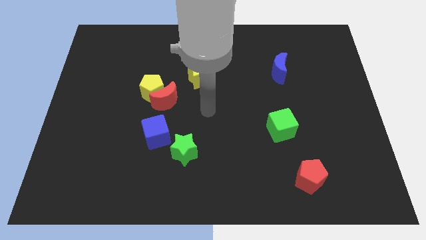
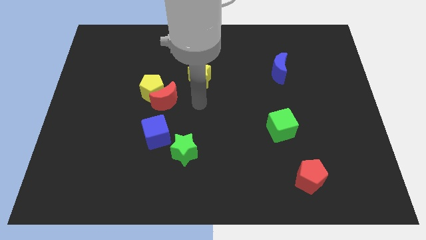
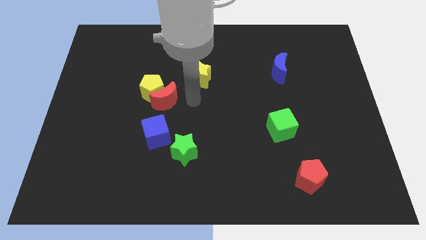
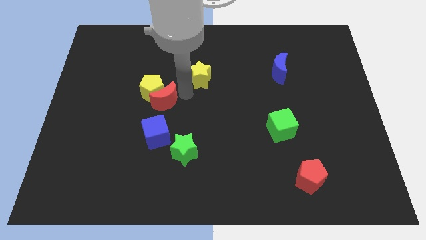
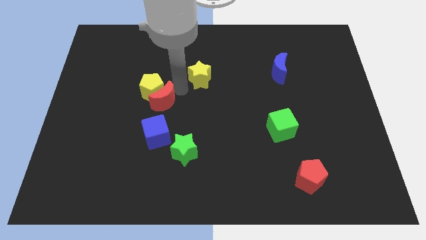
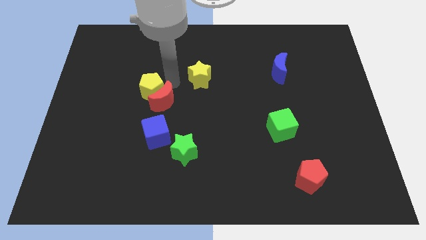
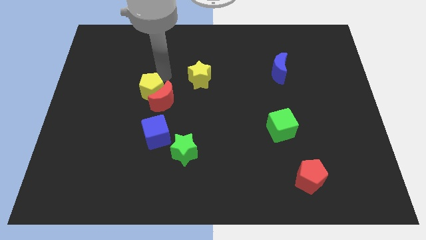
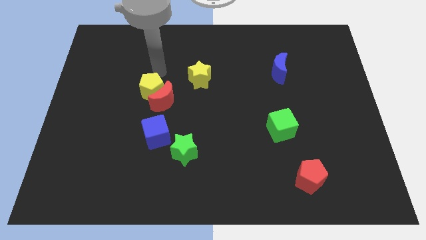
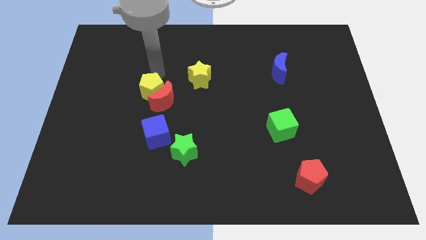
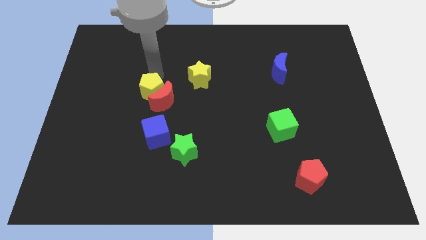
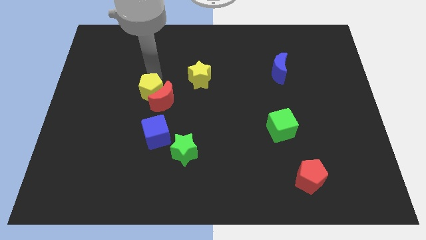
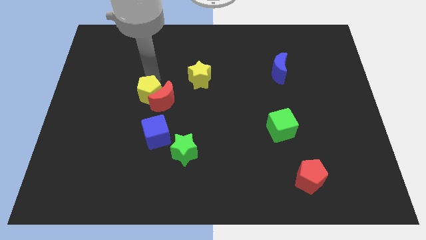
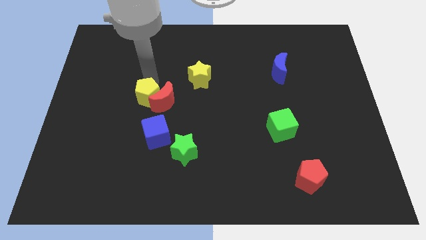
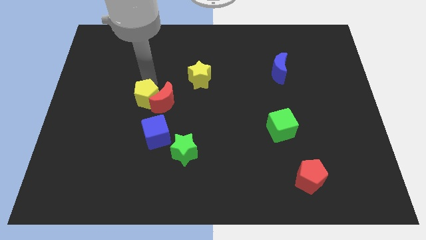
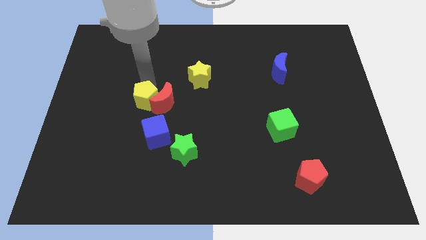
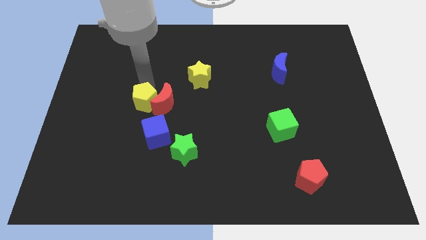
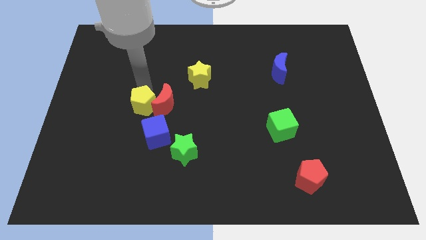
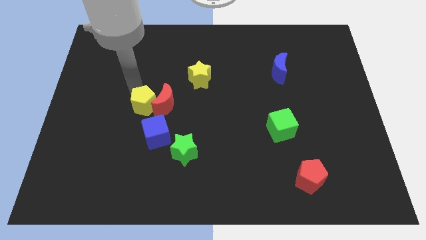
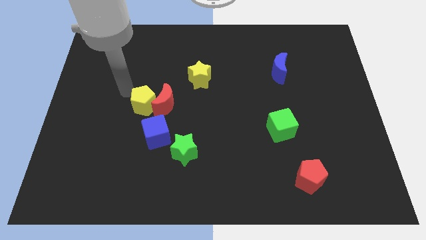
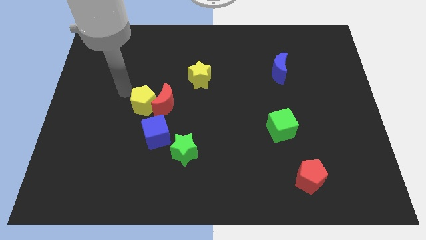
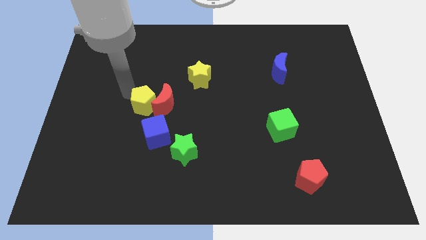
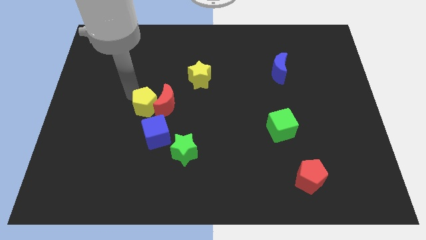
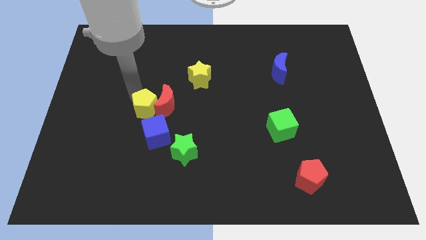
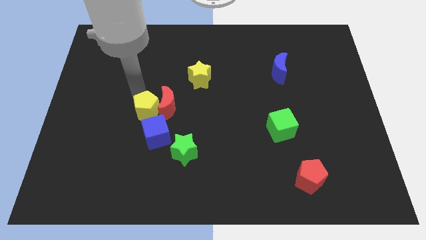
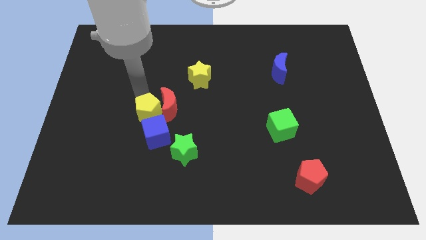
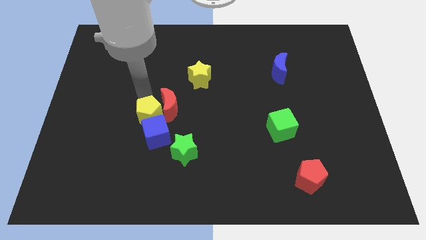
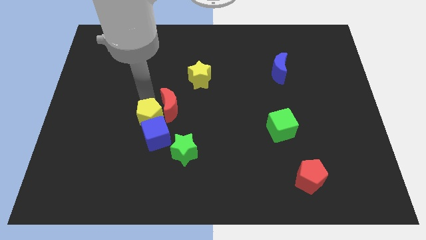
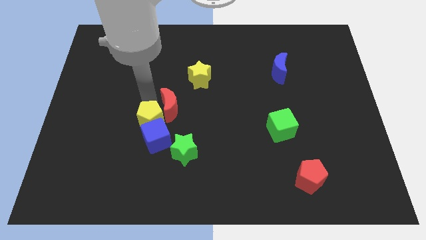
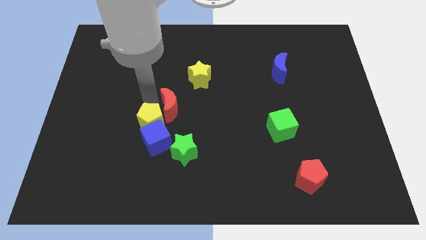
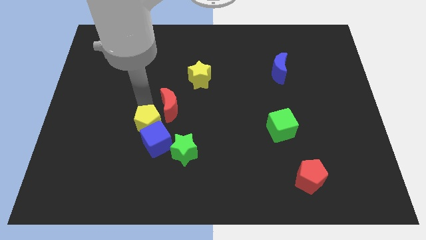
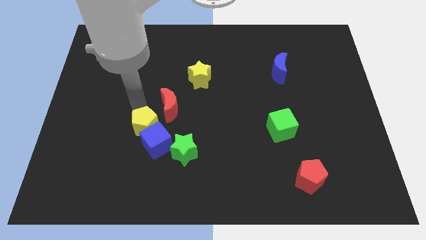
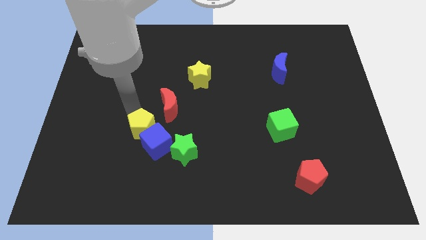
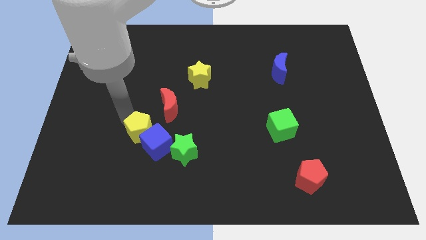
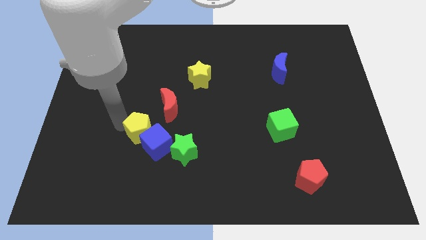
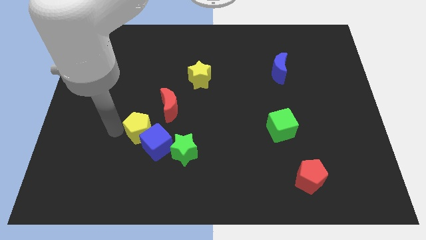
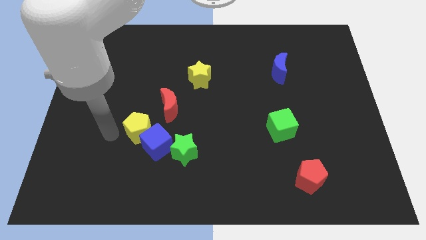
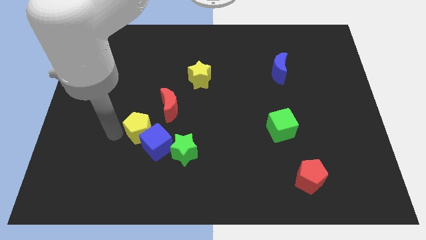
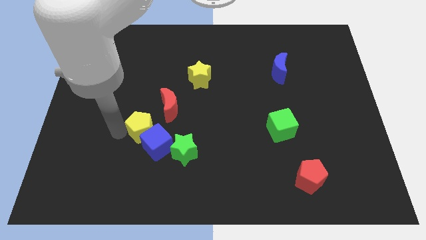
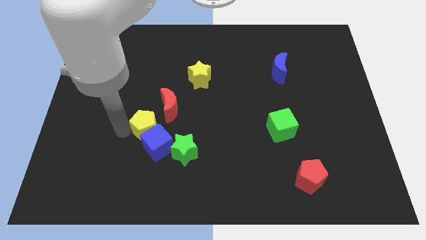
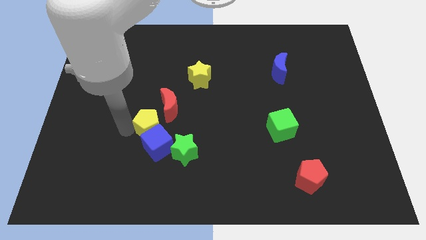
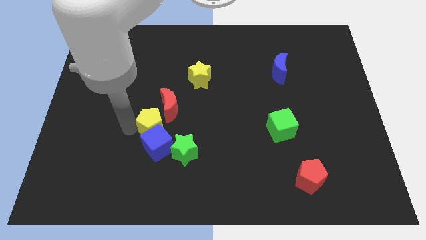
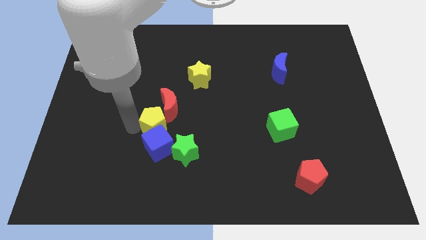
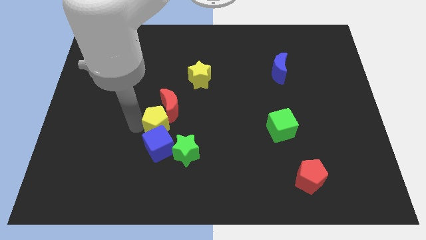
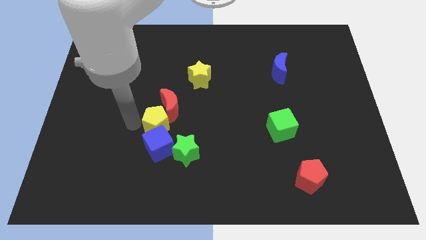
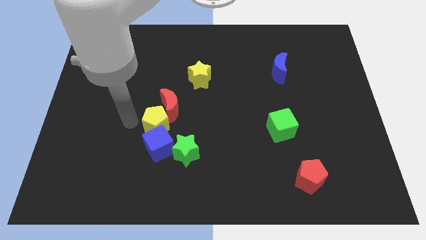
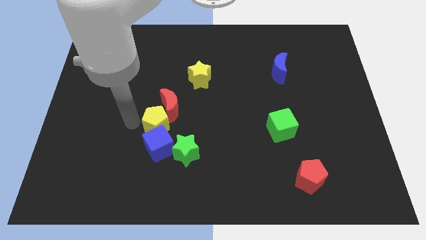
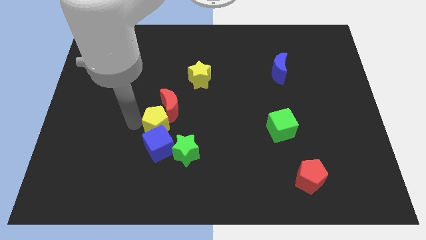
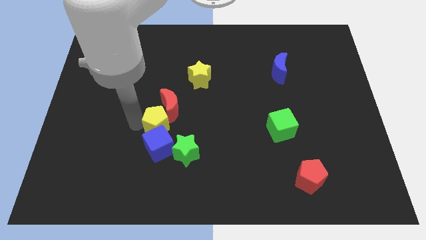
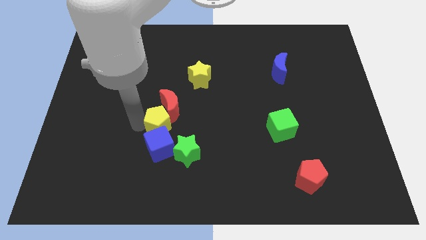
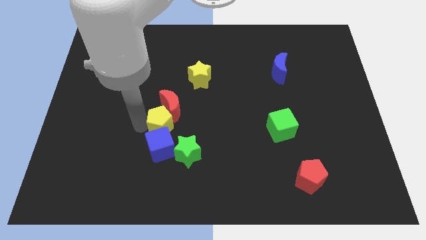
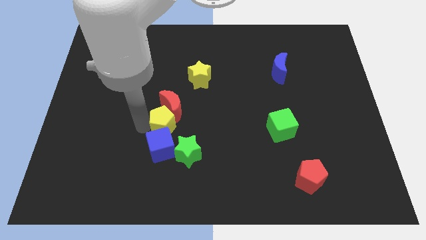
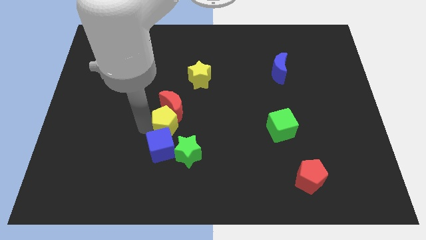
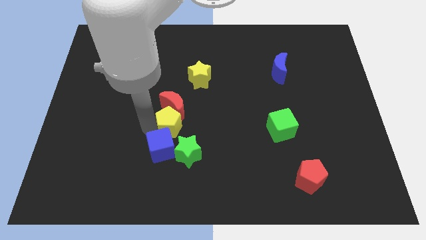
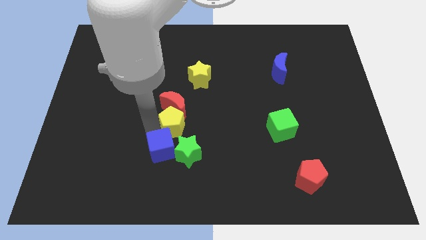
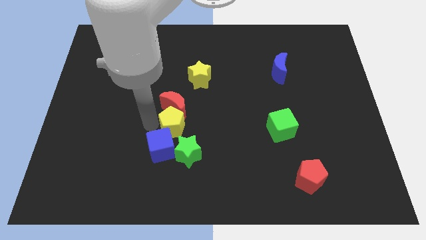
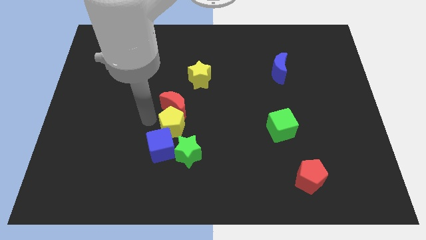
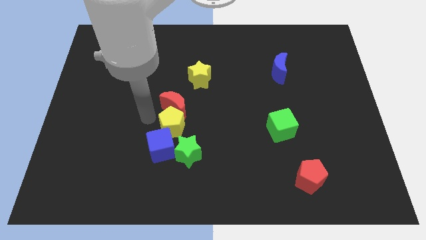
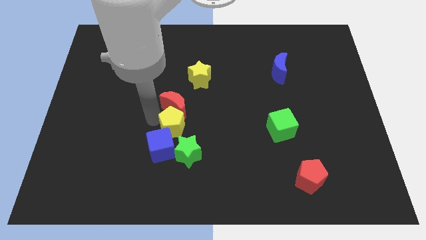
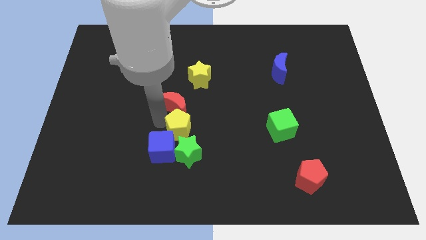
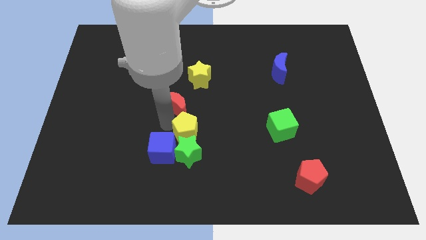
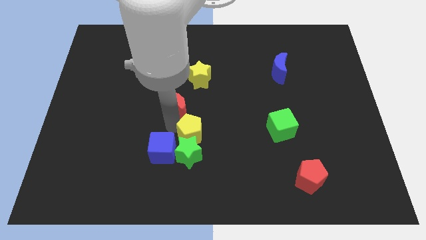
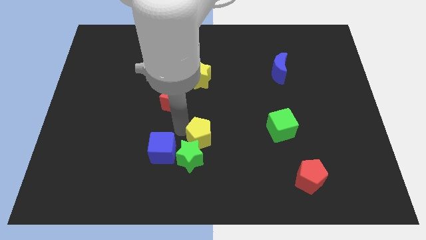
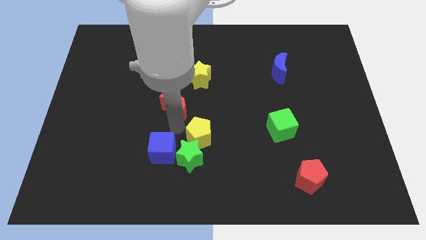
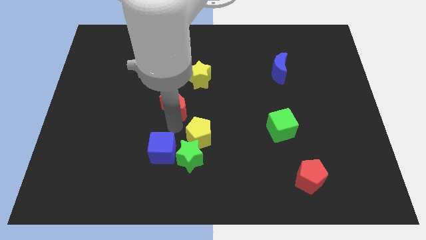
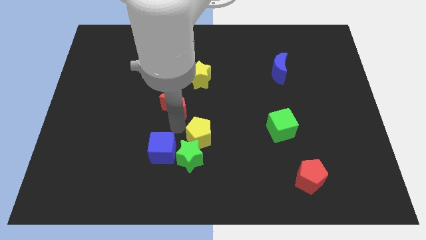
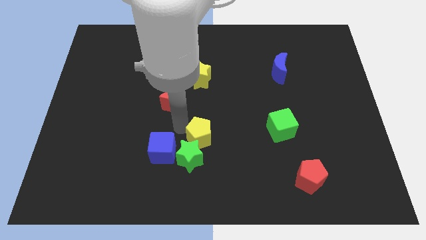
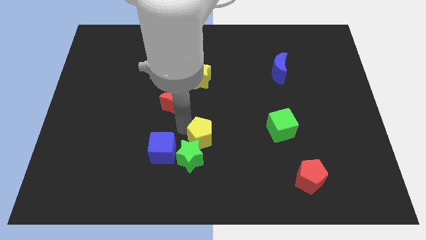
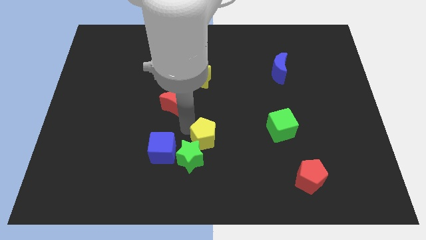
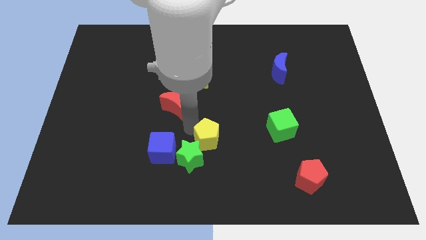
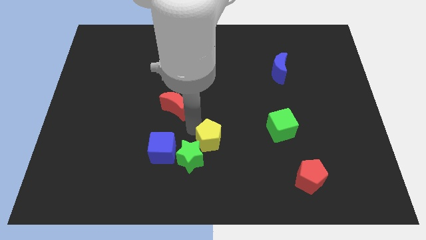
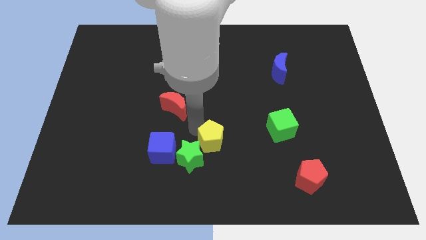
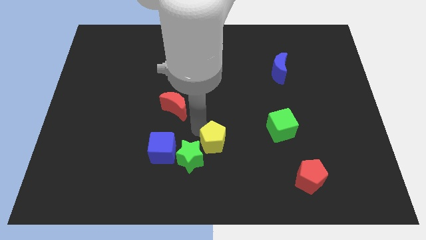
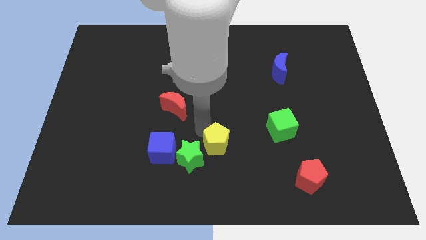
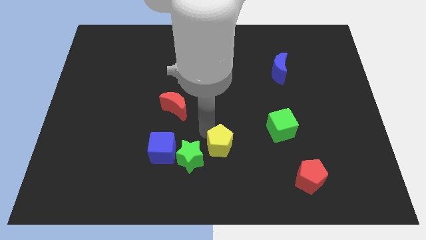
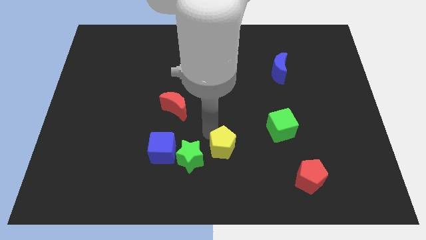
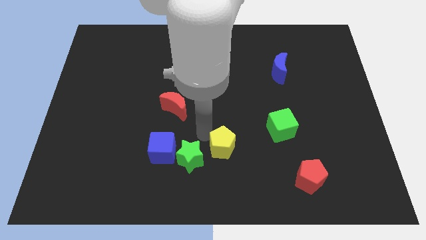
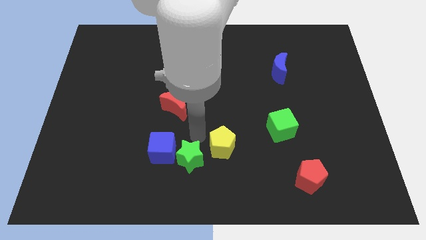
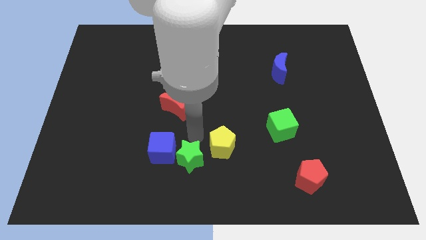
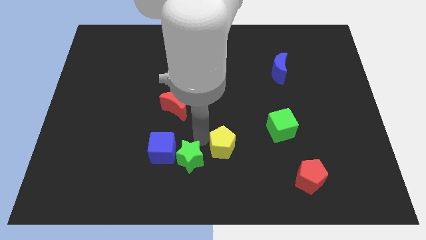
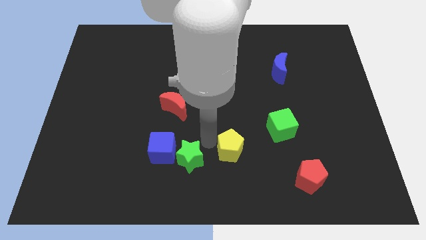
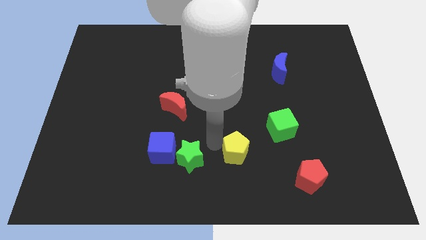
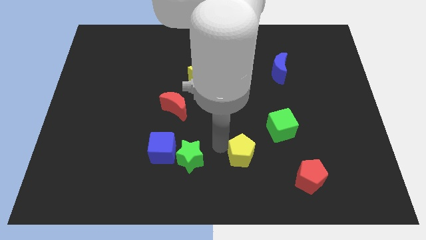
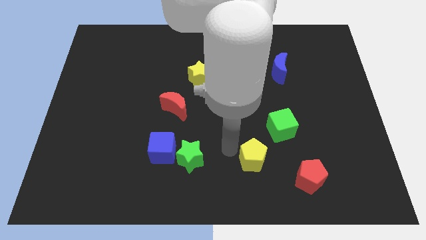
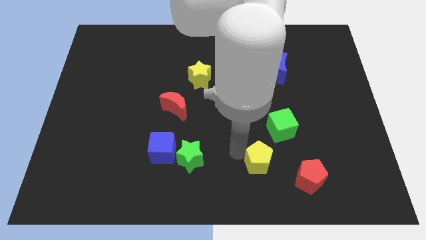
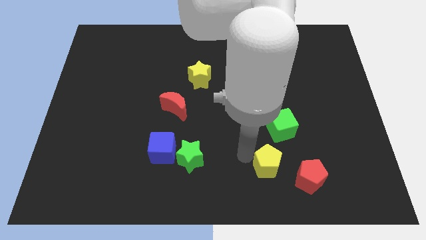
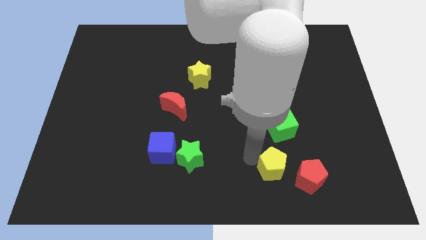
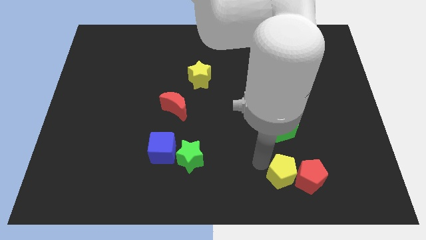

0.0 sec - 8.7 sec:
put the yellow pentagon towards the red pentagon
